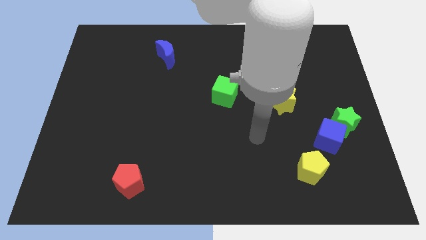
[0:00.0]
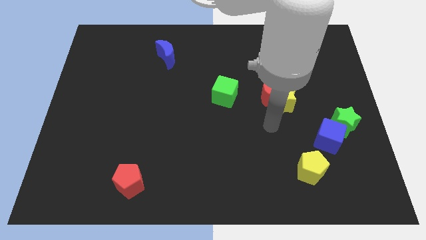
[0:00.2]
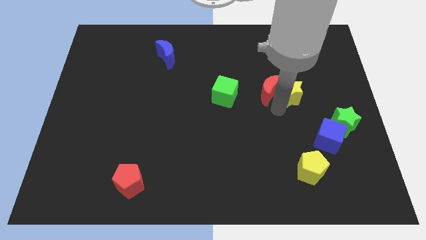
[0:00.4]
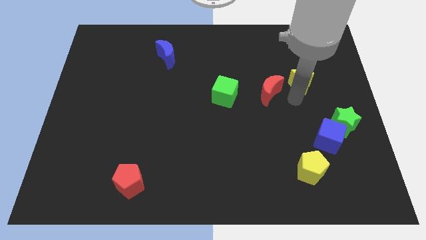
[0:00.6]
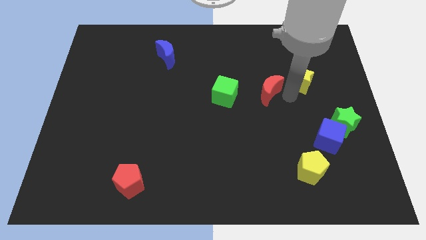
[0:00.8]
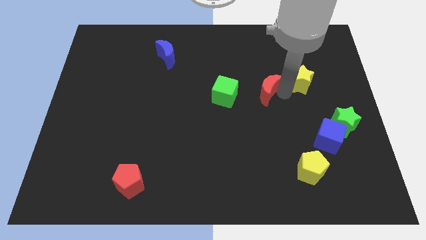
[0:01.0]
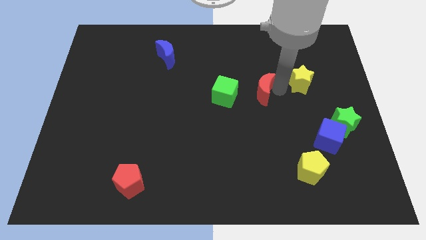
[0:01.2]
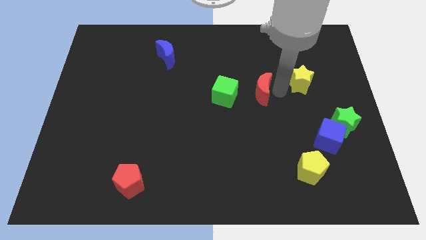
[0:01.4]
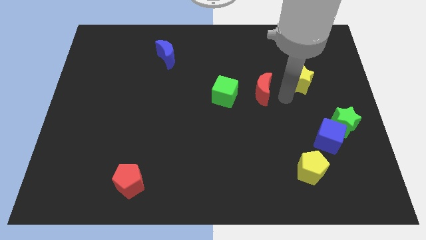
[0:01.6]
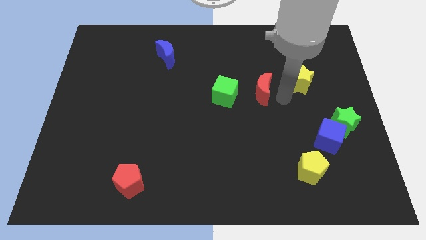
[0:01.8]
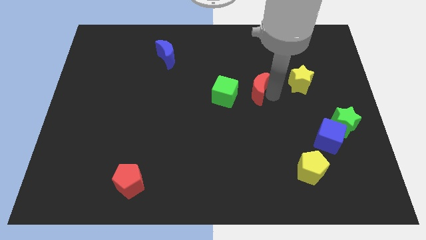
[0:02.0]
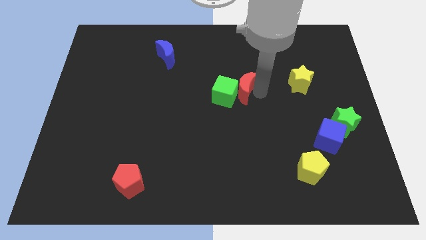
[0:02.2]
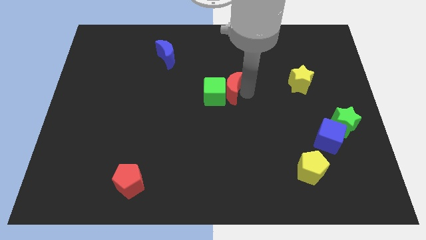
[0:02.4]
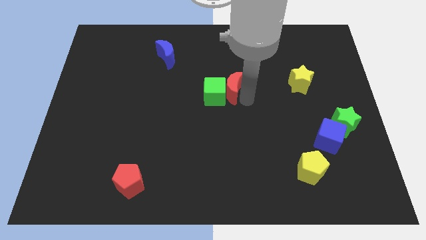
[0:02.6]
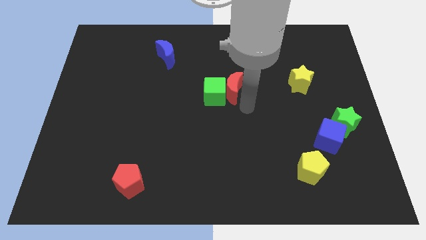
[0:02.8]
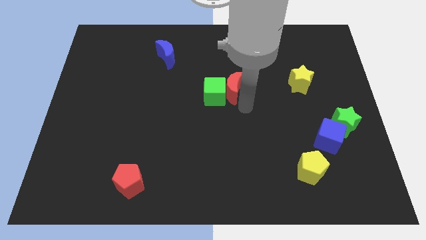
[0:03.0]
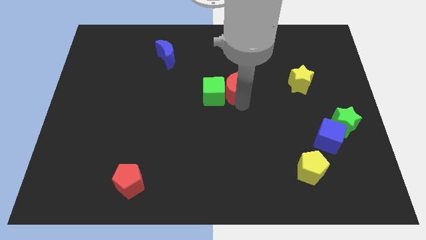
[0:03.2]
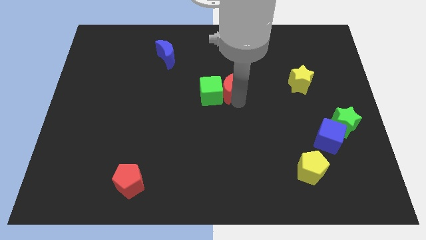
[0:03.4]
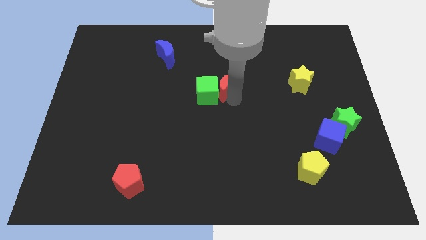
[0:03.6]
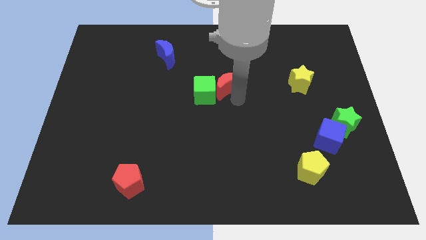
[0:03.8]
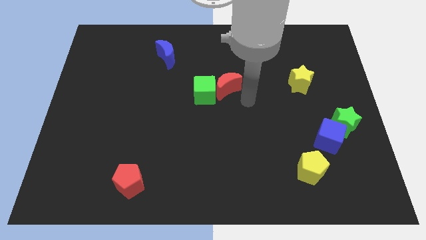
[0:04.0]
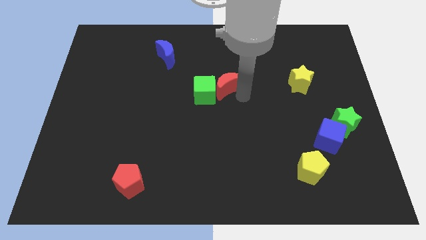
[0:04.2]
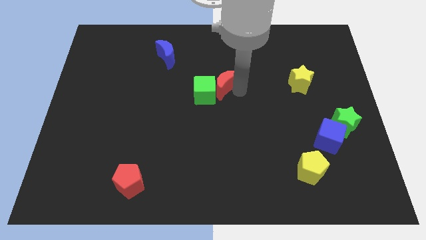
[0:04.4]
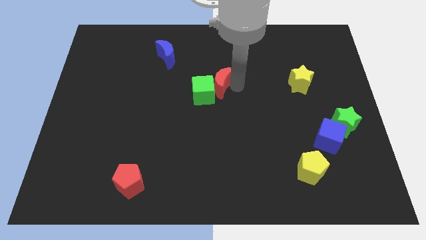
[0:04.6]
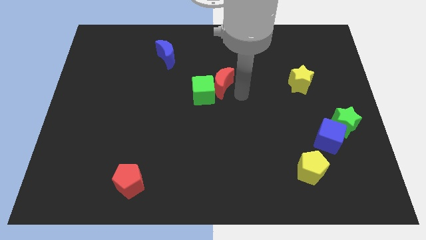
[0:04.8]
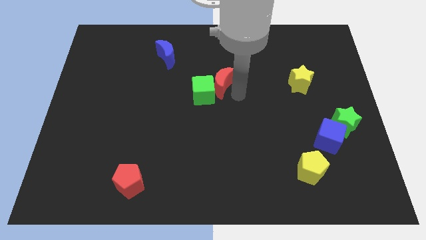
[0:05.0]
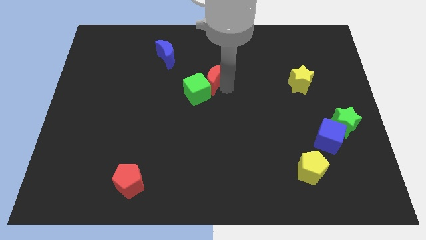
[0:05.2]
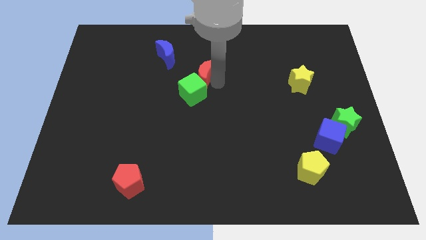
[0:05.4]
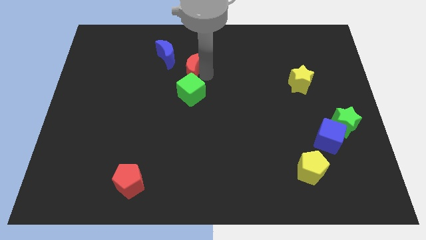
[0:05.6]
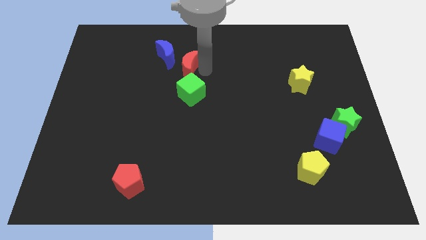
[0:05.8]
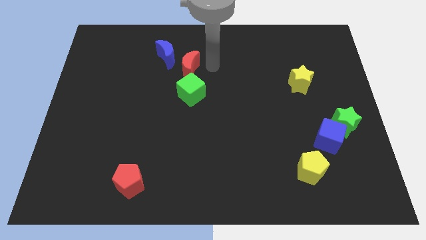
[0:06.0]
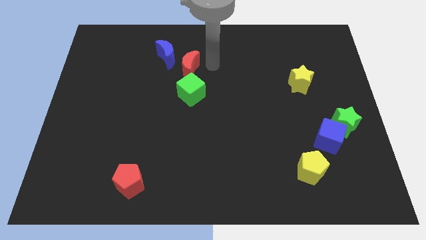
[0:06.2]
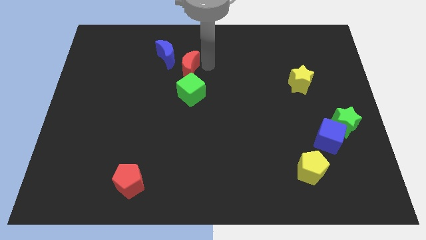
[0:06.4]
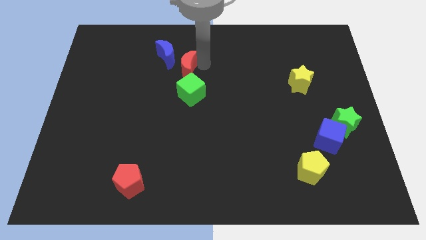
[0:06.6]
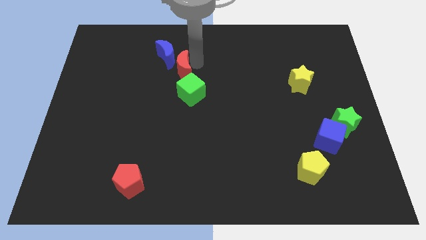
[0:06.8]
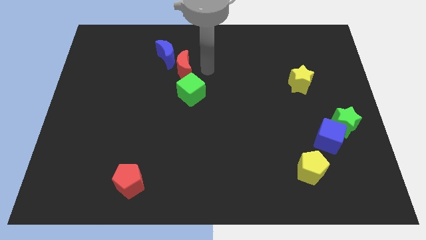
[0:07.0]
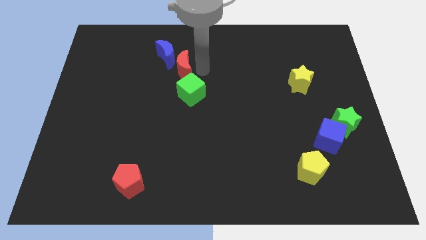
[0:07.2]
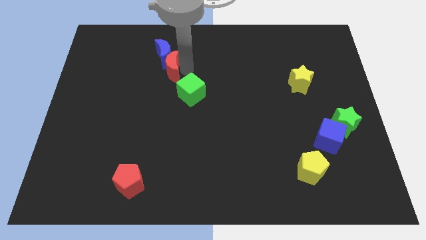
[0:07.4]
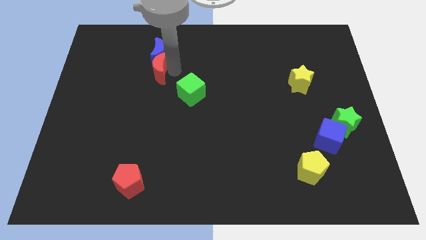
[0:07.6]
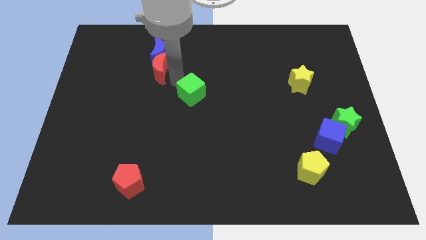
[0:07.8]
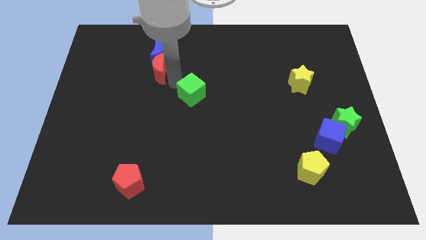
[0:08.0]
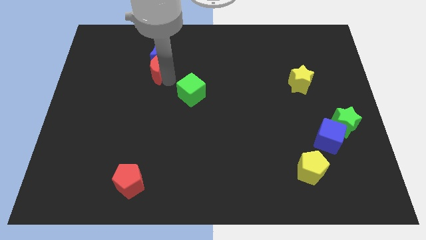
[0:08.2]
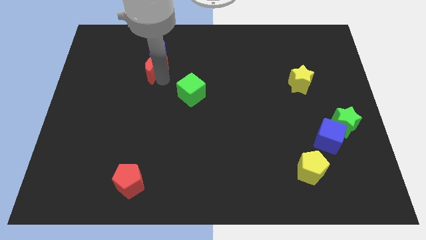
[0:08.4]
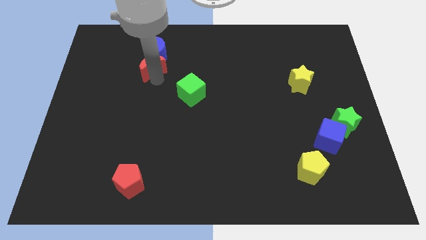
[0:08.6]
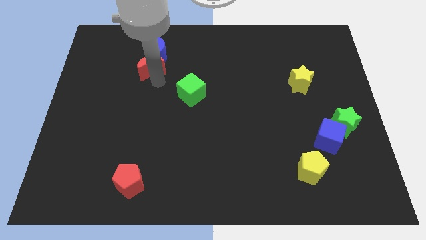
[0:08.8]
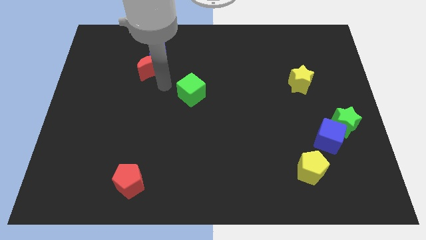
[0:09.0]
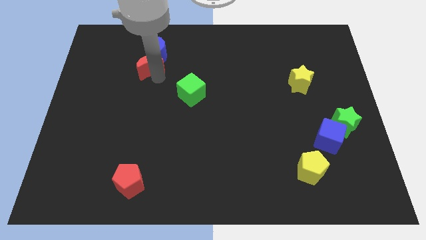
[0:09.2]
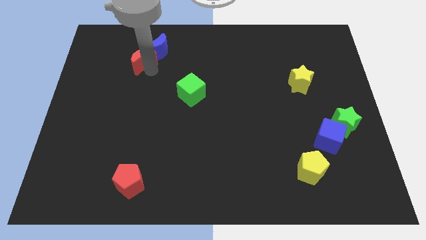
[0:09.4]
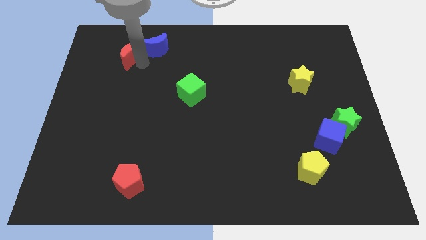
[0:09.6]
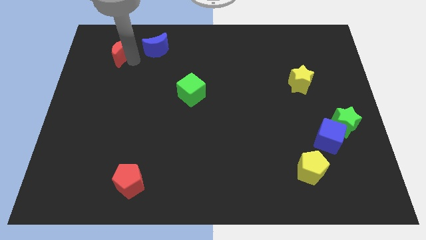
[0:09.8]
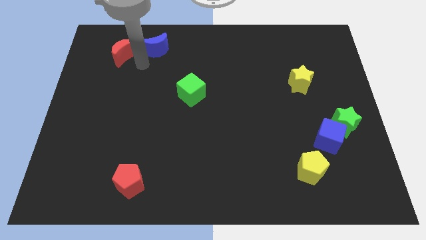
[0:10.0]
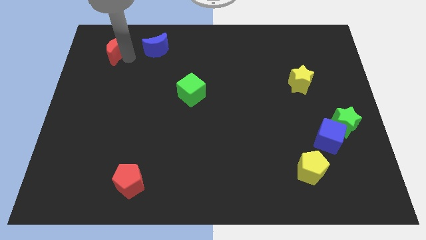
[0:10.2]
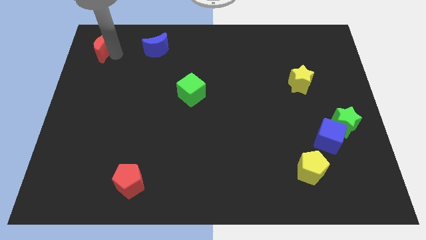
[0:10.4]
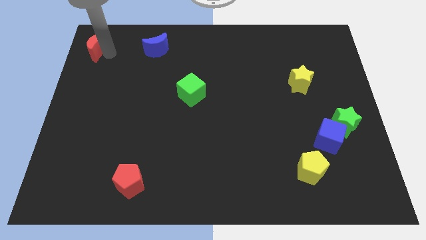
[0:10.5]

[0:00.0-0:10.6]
push the red moon to the top left of the board

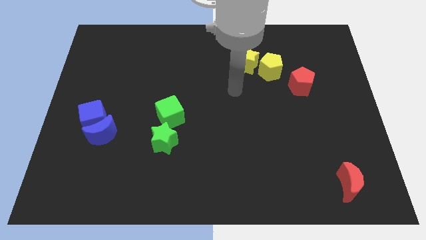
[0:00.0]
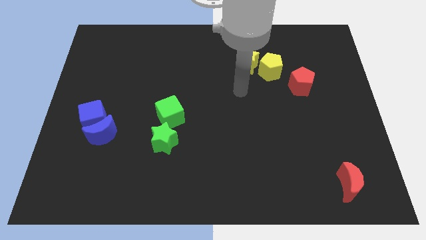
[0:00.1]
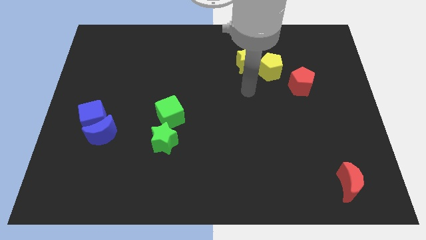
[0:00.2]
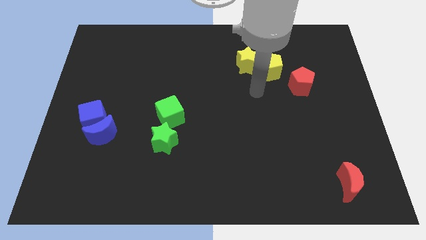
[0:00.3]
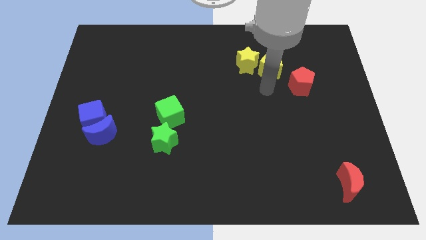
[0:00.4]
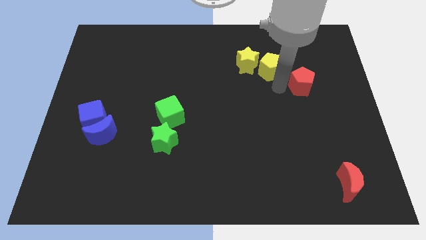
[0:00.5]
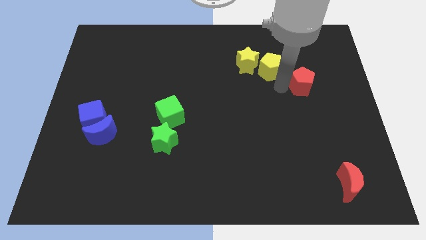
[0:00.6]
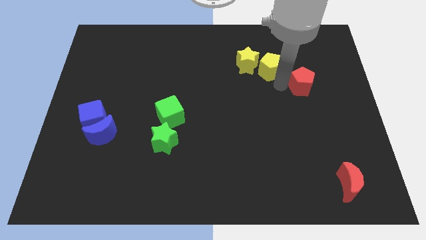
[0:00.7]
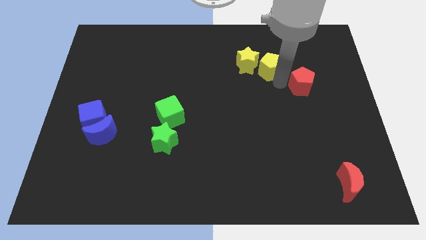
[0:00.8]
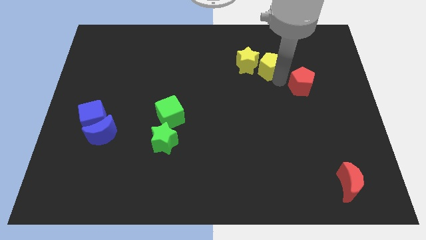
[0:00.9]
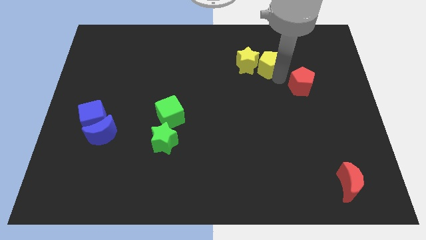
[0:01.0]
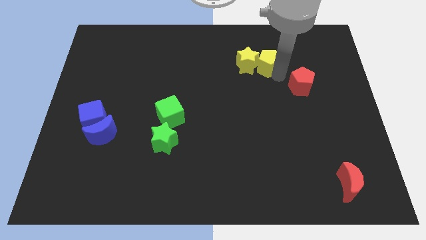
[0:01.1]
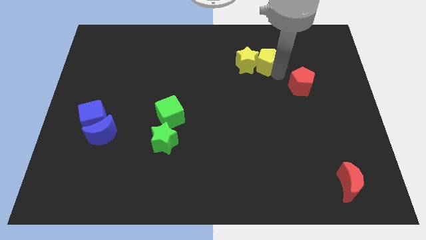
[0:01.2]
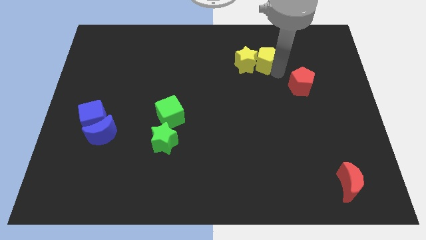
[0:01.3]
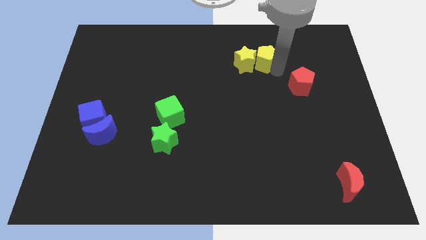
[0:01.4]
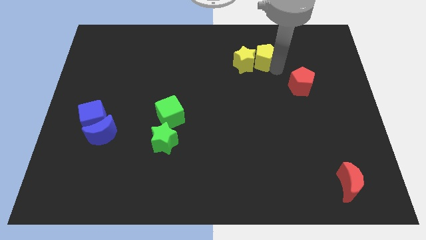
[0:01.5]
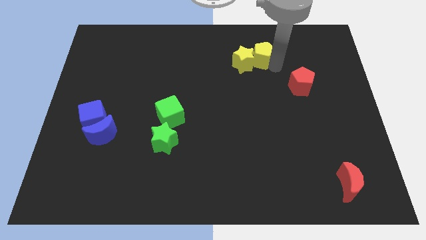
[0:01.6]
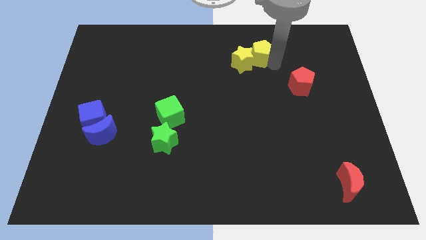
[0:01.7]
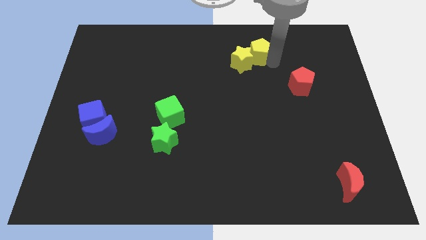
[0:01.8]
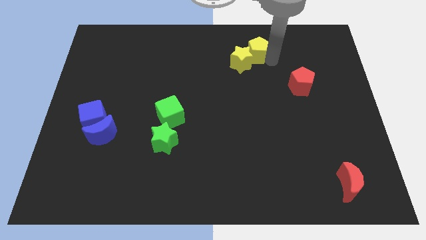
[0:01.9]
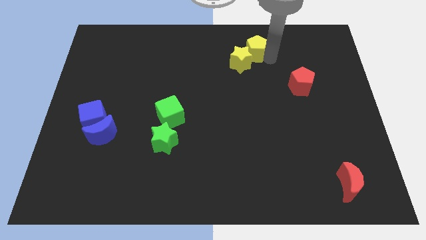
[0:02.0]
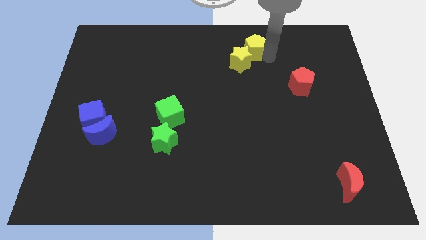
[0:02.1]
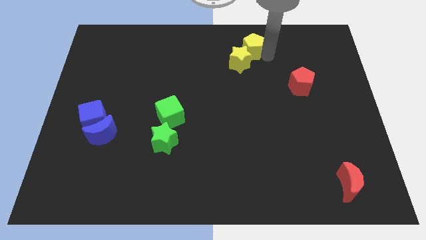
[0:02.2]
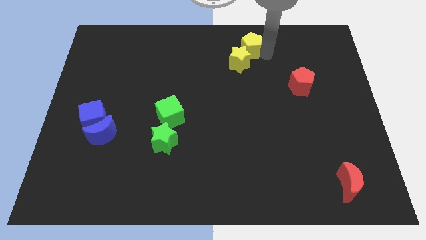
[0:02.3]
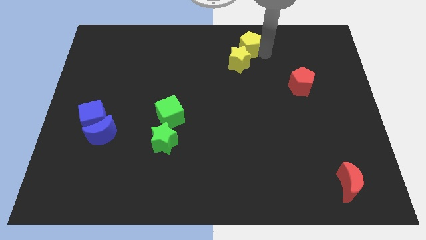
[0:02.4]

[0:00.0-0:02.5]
move the yellow pentagon to the top
